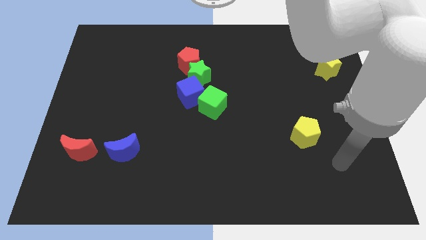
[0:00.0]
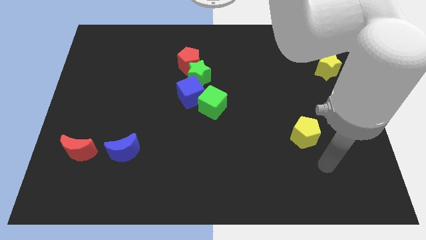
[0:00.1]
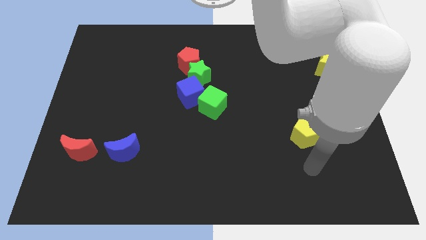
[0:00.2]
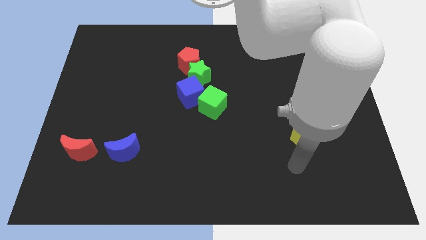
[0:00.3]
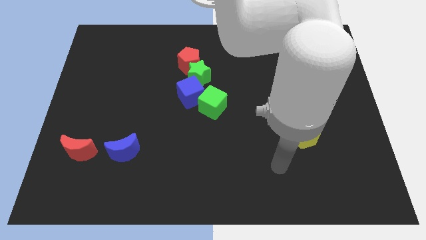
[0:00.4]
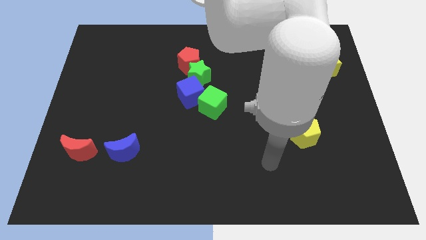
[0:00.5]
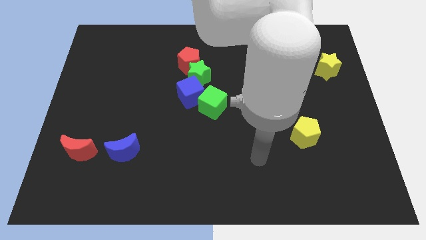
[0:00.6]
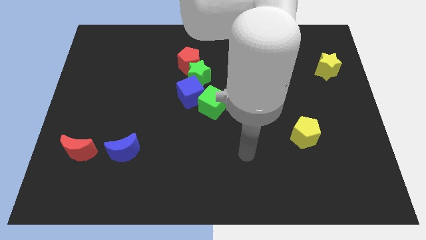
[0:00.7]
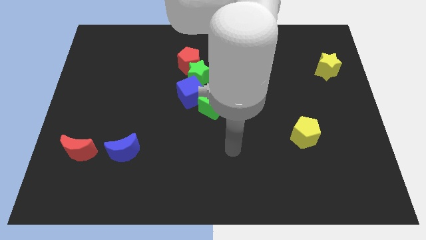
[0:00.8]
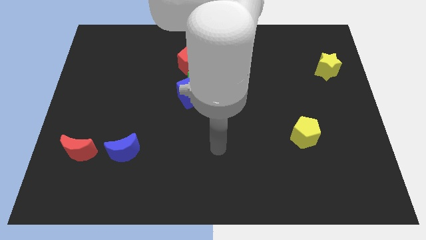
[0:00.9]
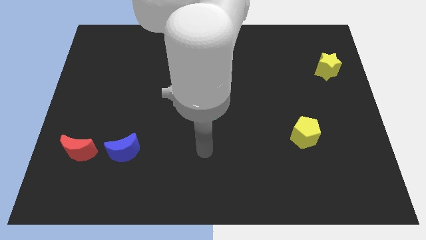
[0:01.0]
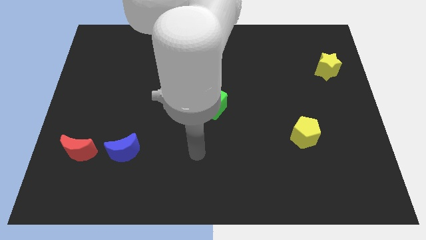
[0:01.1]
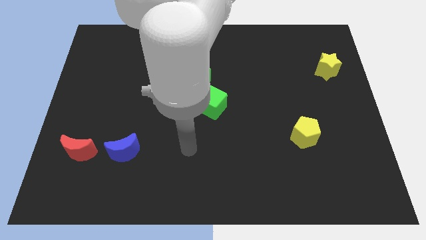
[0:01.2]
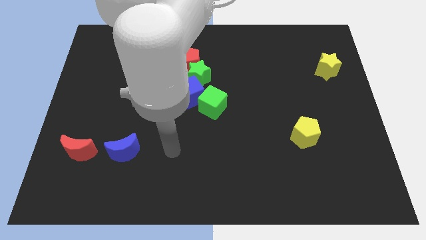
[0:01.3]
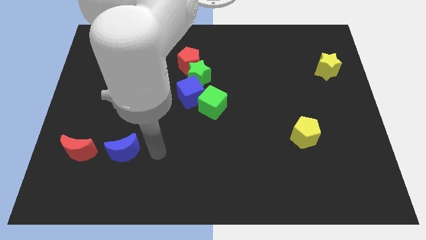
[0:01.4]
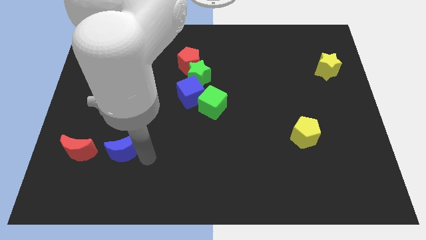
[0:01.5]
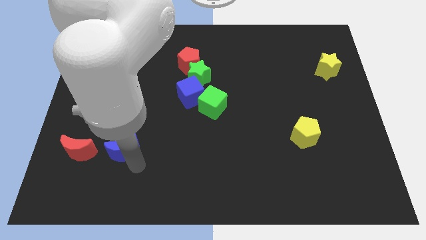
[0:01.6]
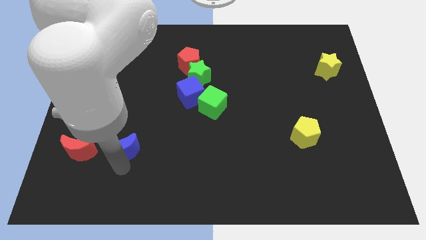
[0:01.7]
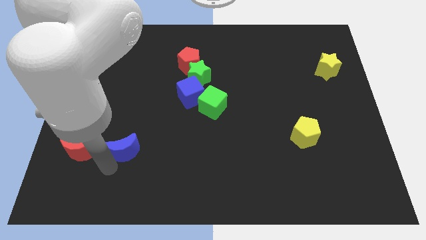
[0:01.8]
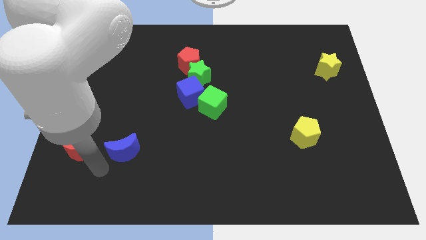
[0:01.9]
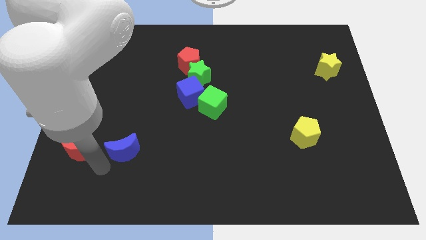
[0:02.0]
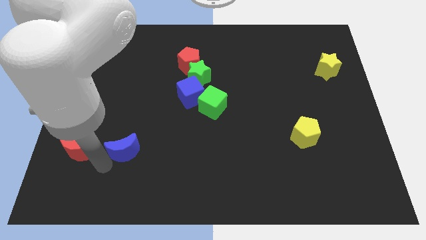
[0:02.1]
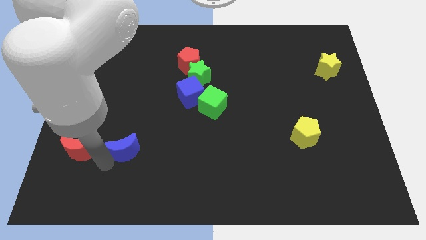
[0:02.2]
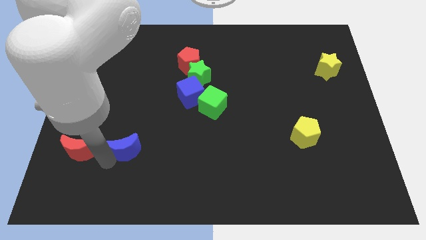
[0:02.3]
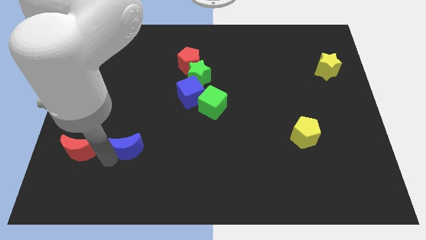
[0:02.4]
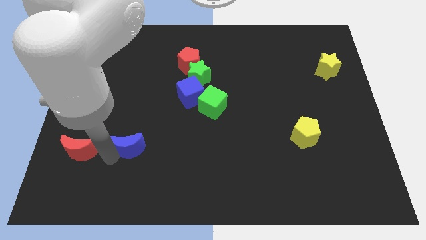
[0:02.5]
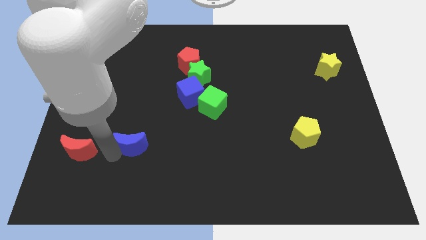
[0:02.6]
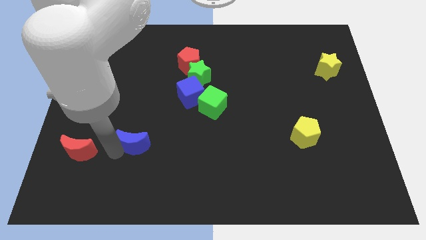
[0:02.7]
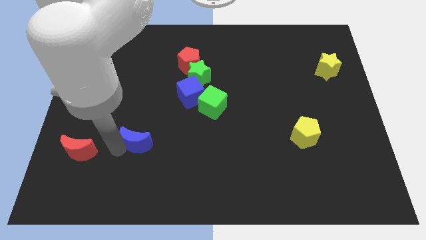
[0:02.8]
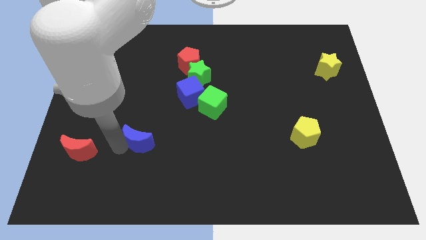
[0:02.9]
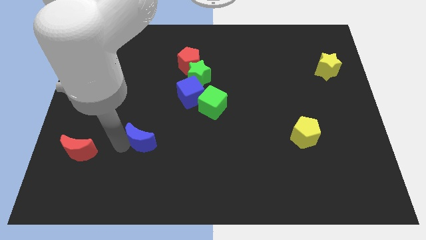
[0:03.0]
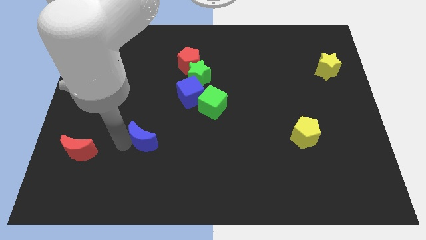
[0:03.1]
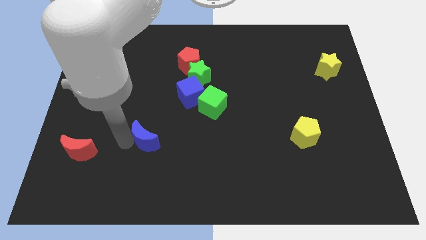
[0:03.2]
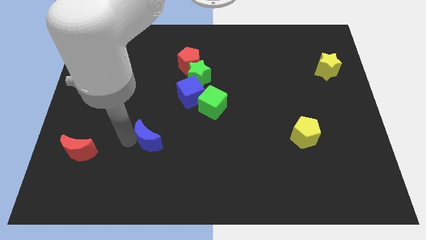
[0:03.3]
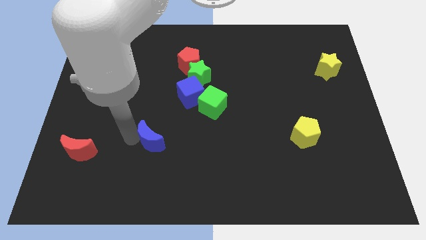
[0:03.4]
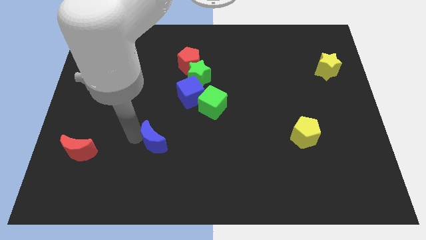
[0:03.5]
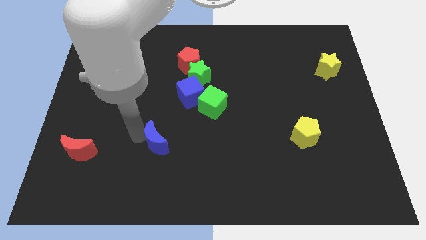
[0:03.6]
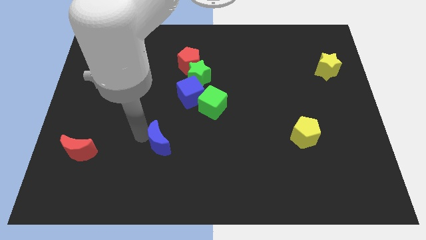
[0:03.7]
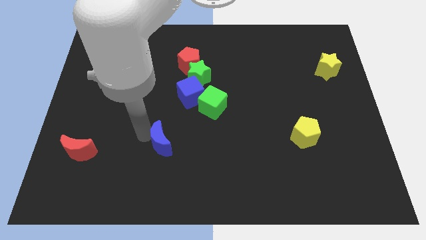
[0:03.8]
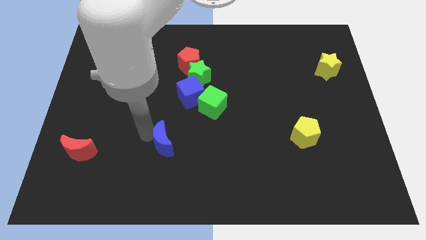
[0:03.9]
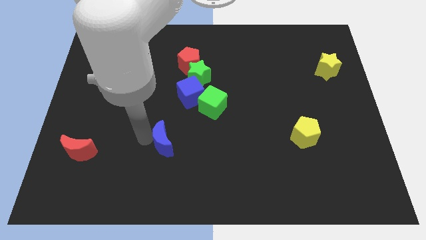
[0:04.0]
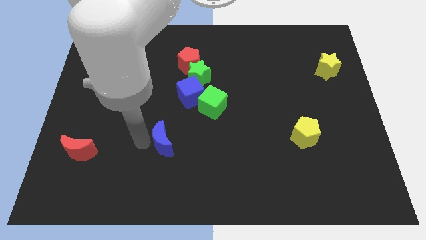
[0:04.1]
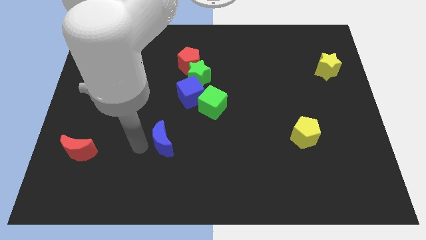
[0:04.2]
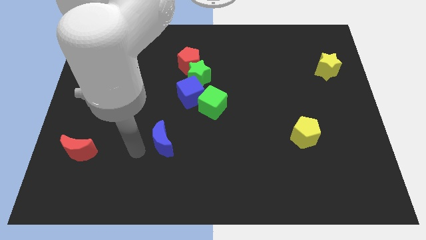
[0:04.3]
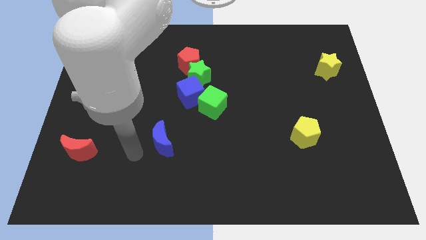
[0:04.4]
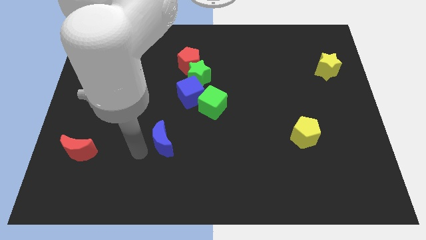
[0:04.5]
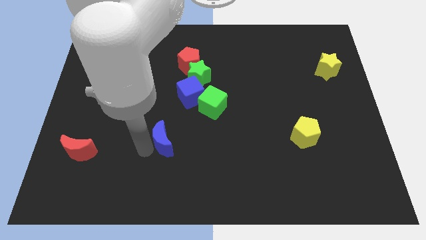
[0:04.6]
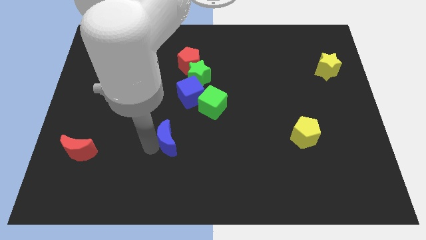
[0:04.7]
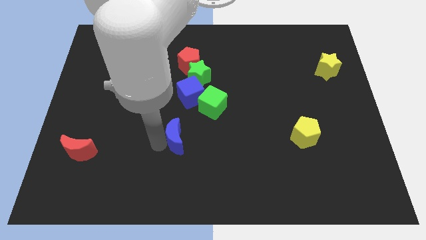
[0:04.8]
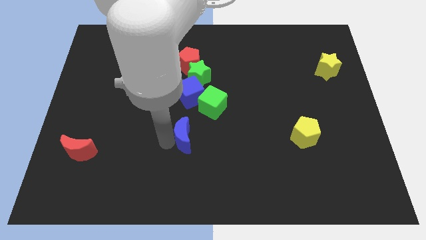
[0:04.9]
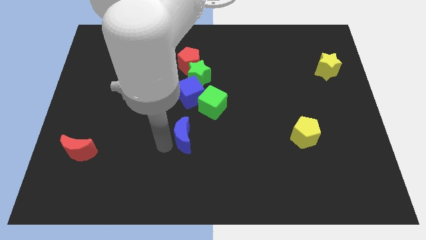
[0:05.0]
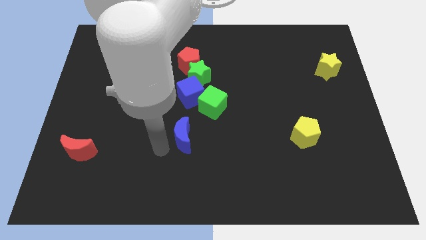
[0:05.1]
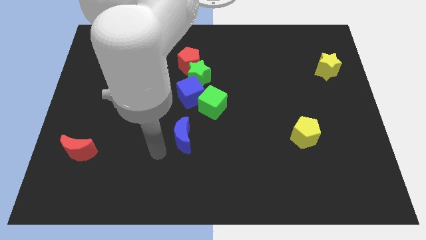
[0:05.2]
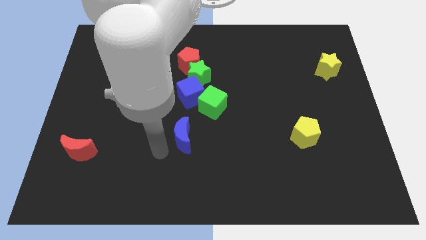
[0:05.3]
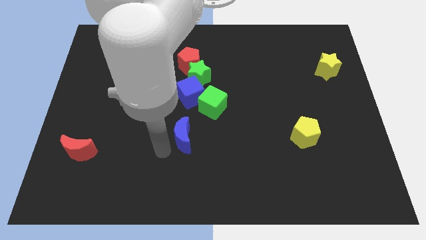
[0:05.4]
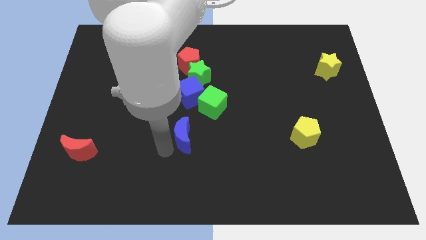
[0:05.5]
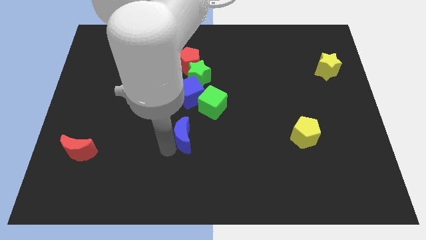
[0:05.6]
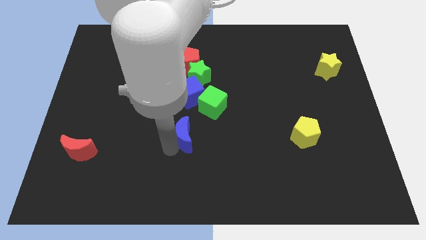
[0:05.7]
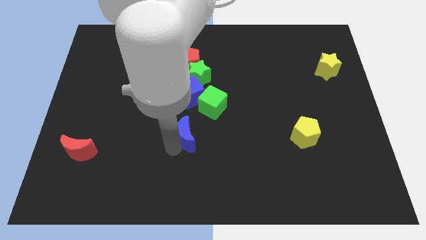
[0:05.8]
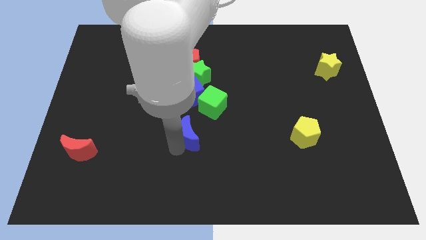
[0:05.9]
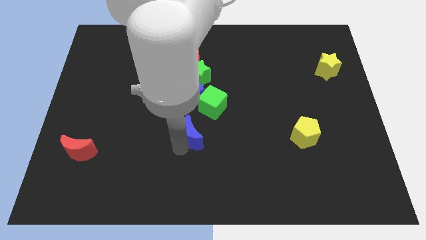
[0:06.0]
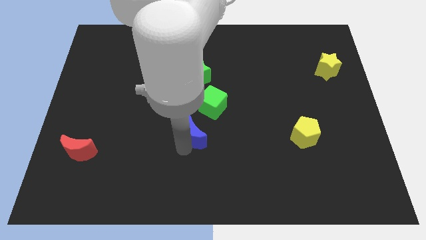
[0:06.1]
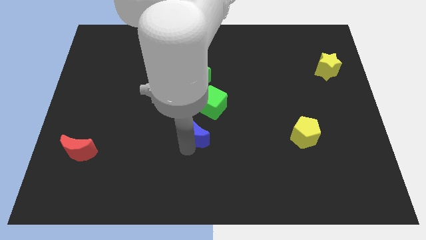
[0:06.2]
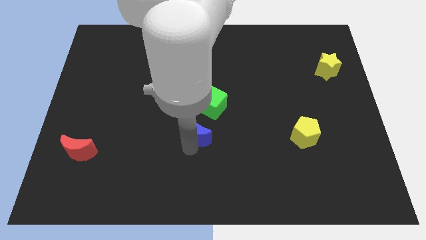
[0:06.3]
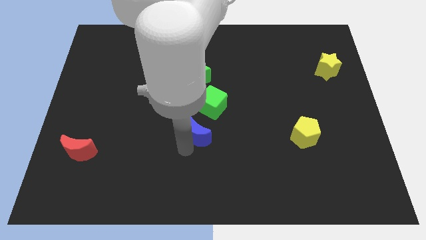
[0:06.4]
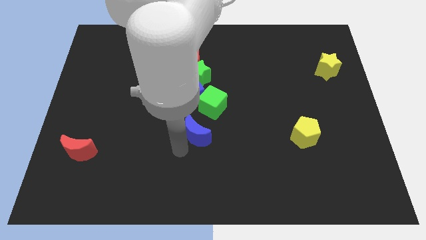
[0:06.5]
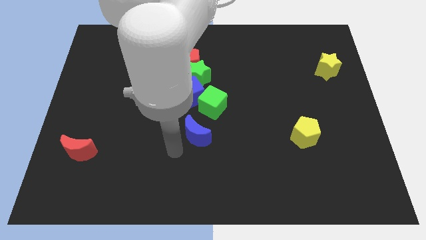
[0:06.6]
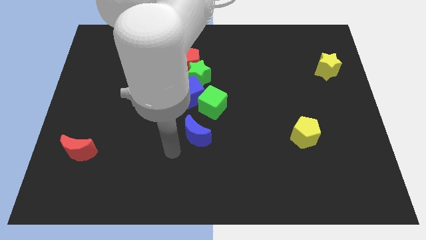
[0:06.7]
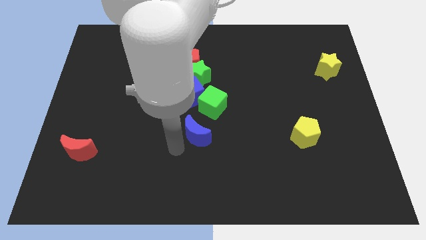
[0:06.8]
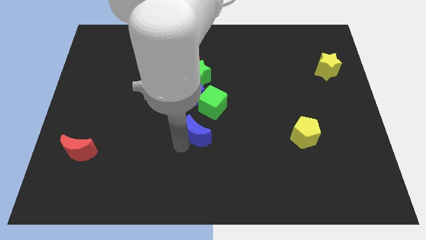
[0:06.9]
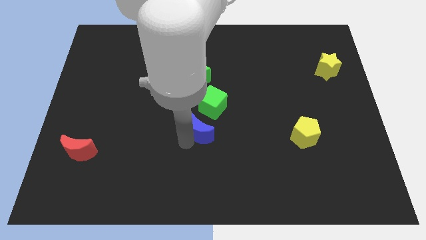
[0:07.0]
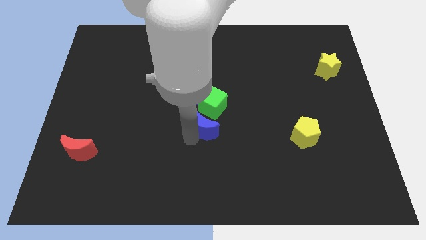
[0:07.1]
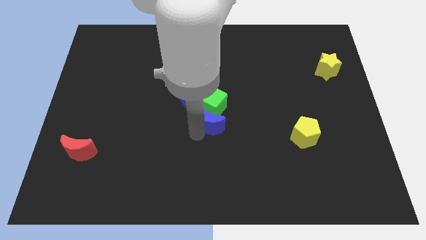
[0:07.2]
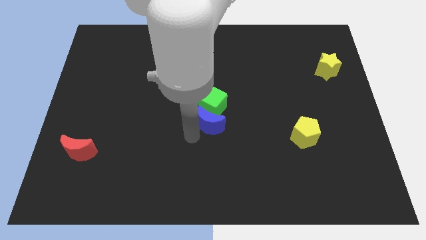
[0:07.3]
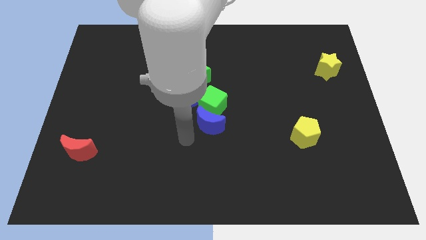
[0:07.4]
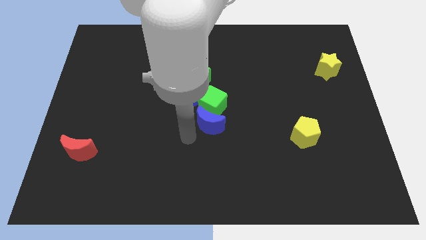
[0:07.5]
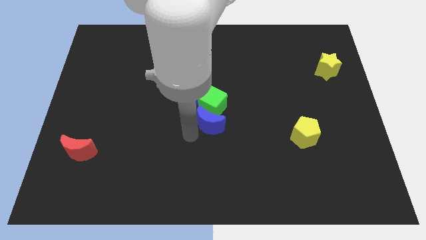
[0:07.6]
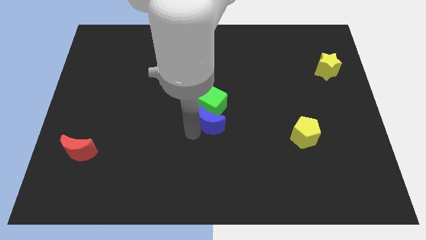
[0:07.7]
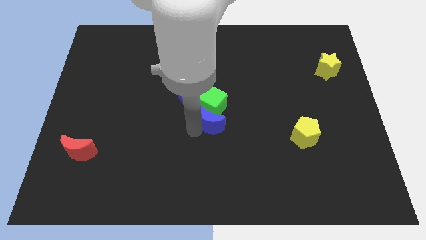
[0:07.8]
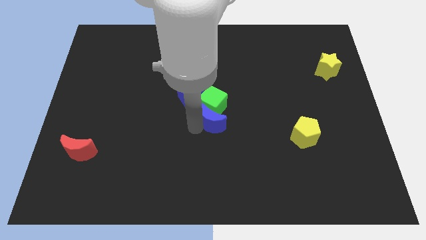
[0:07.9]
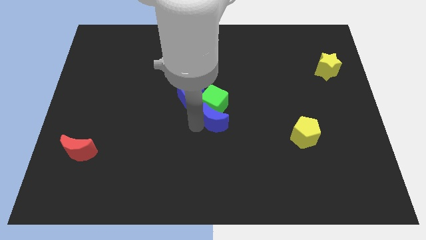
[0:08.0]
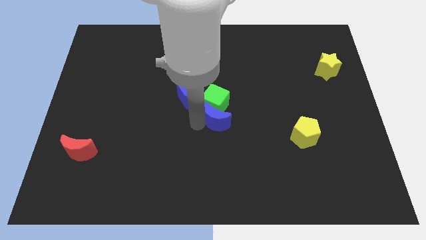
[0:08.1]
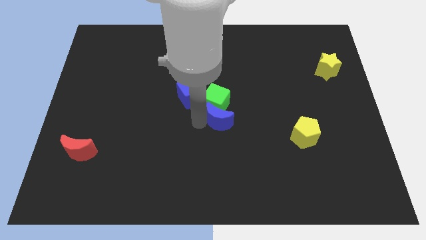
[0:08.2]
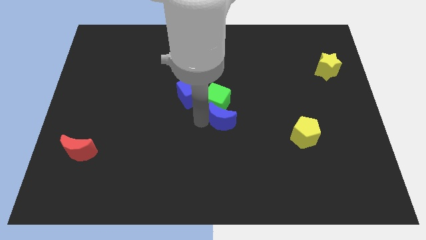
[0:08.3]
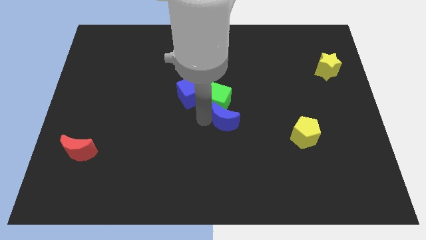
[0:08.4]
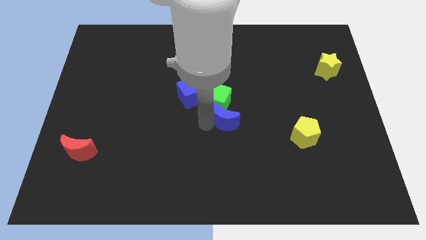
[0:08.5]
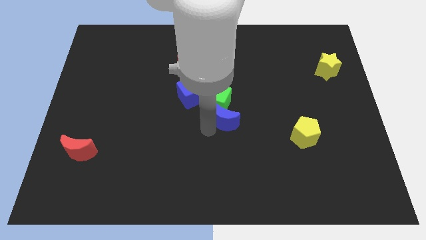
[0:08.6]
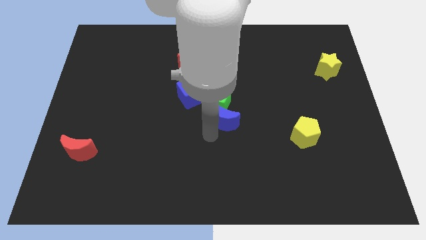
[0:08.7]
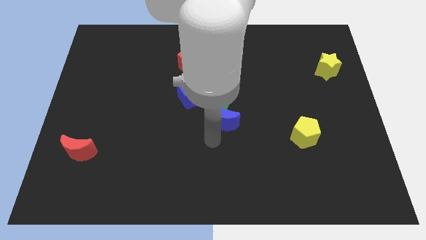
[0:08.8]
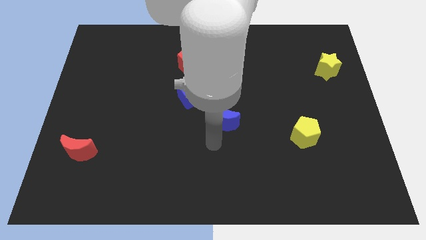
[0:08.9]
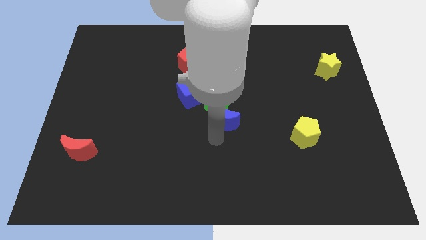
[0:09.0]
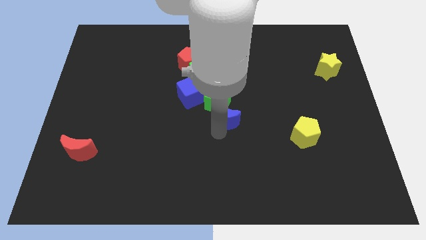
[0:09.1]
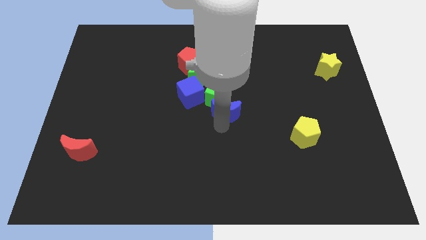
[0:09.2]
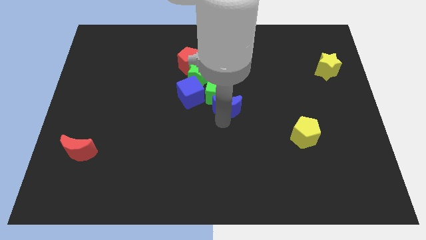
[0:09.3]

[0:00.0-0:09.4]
put the blue moon to the bottom right side of the green star
